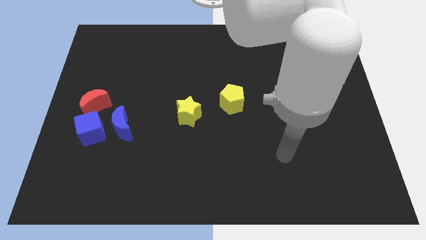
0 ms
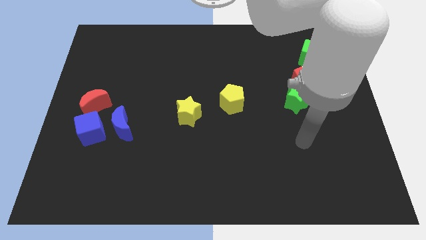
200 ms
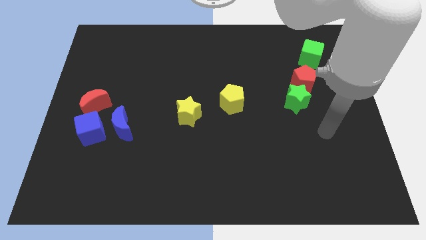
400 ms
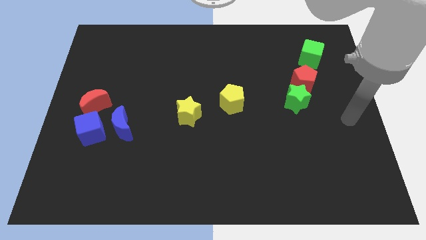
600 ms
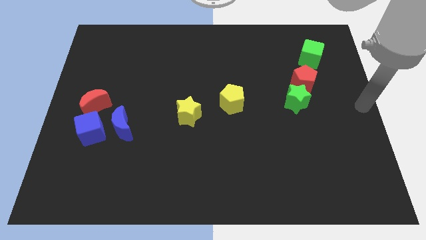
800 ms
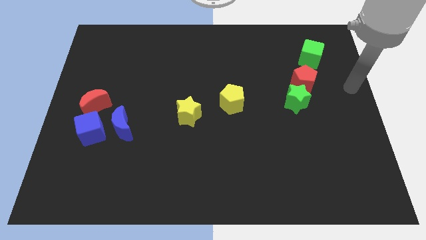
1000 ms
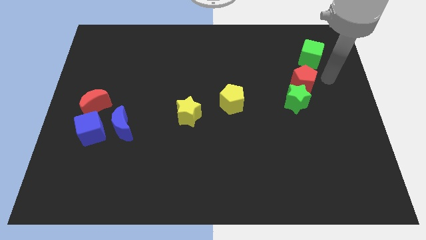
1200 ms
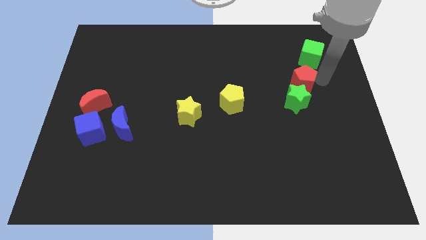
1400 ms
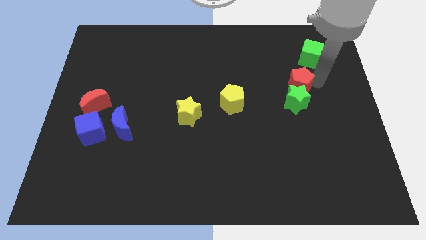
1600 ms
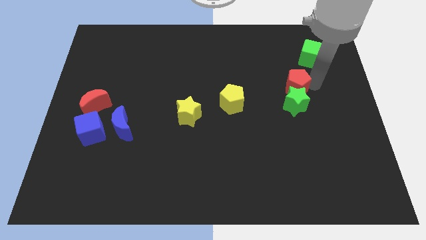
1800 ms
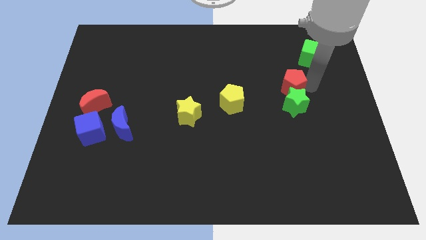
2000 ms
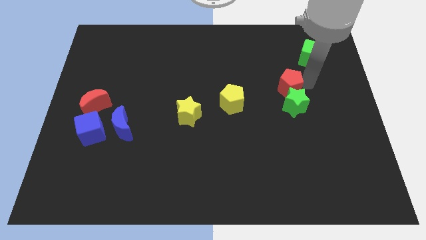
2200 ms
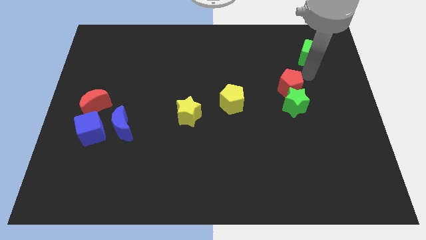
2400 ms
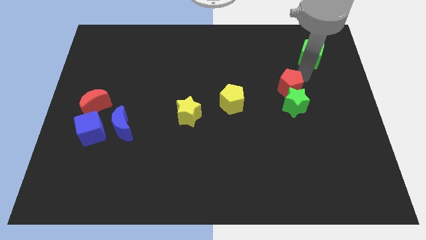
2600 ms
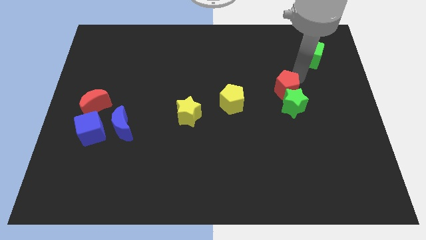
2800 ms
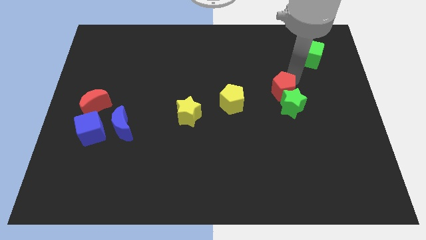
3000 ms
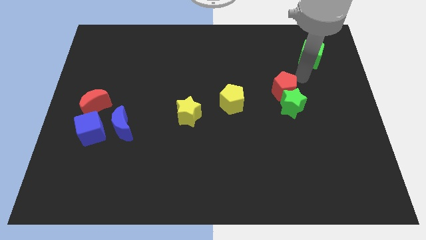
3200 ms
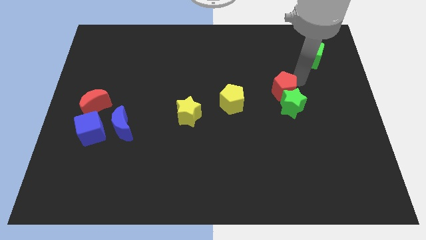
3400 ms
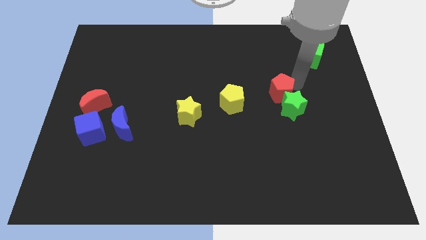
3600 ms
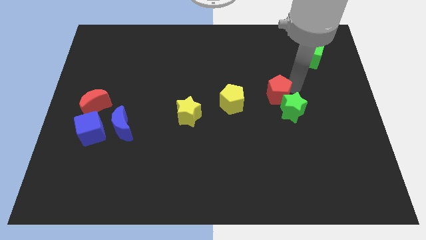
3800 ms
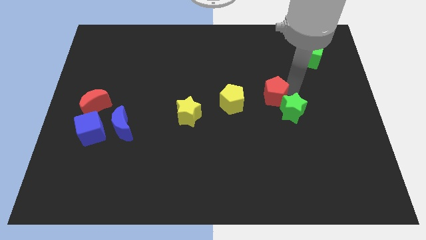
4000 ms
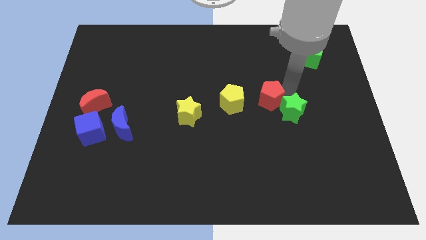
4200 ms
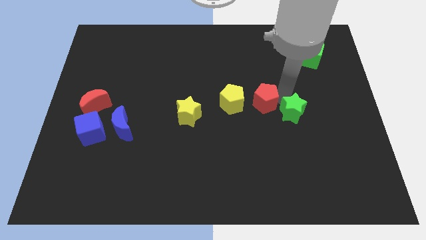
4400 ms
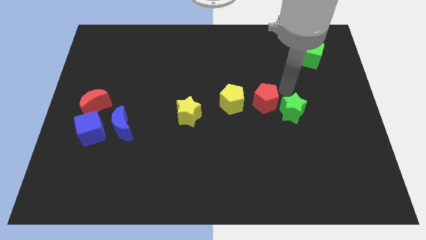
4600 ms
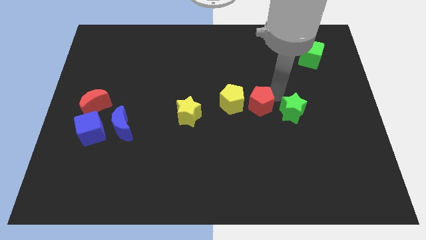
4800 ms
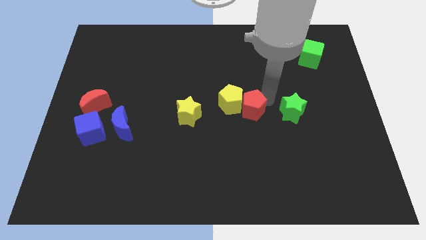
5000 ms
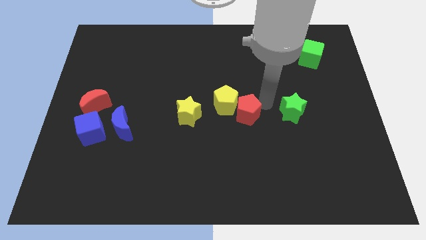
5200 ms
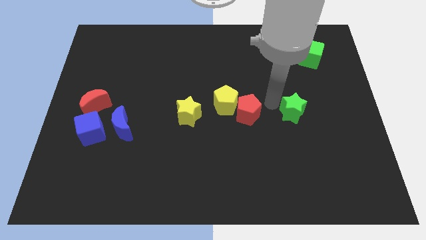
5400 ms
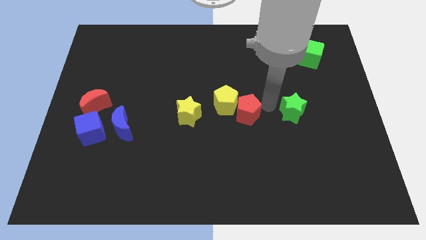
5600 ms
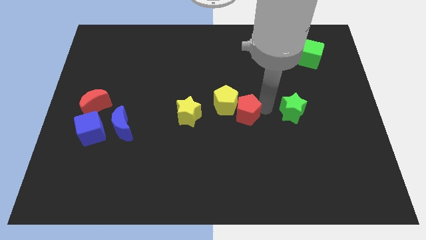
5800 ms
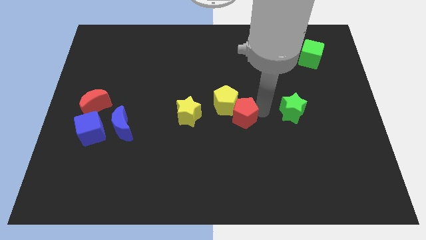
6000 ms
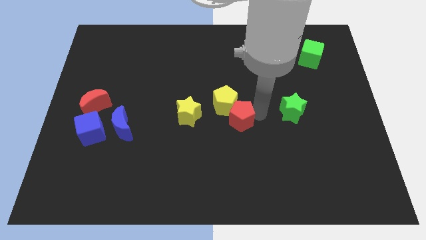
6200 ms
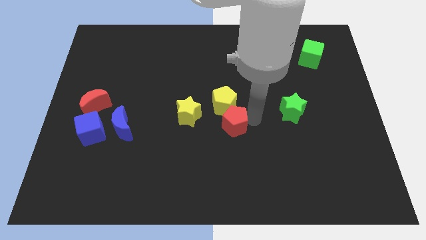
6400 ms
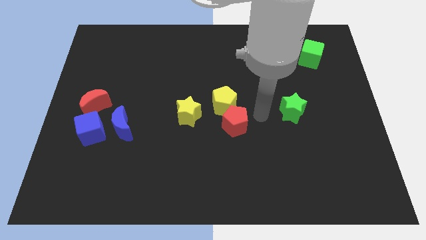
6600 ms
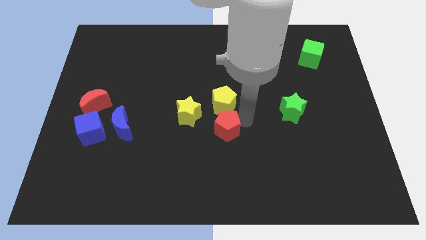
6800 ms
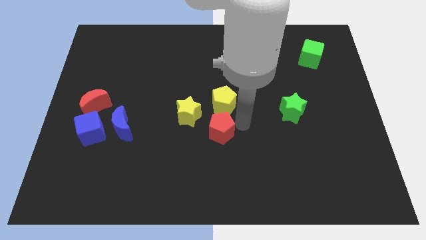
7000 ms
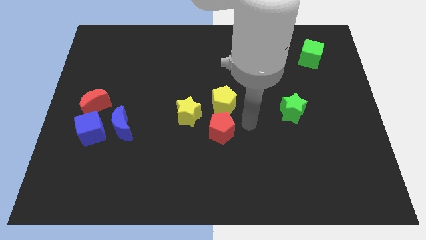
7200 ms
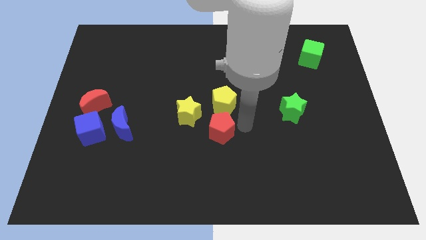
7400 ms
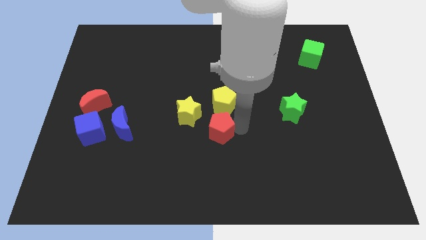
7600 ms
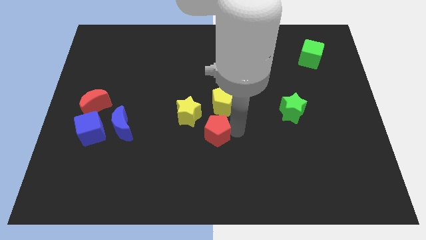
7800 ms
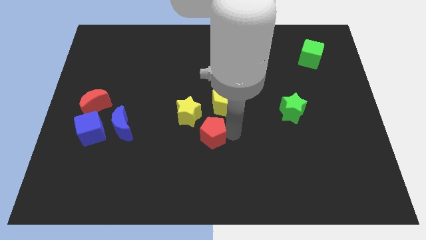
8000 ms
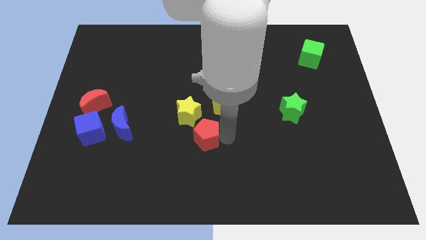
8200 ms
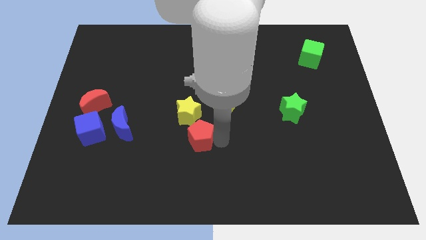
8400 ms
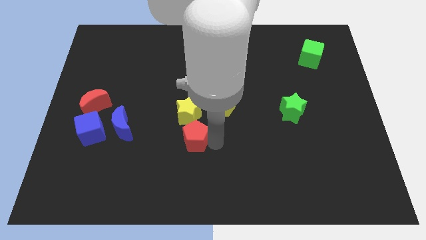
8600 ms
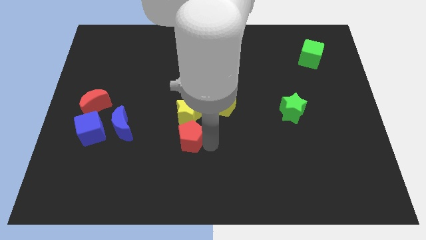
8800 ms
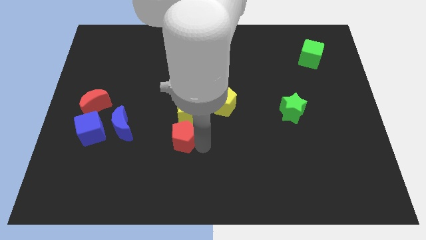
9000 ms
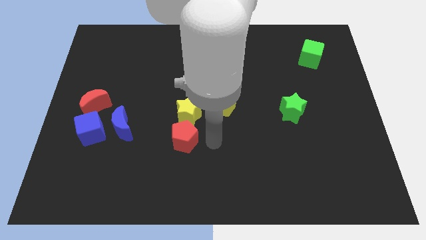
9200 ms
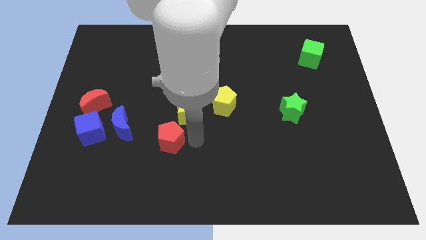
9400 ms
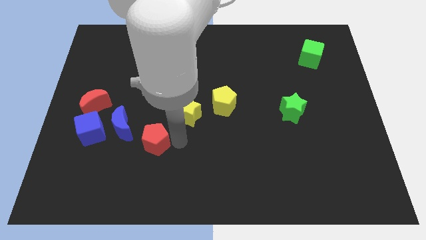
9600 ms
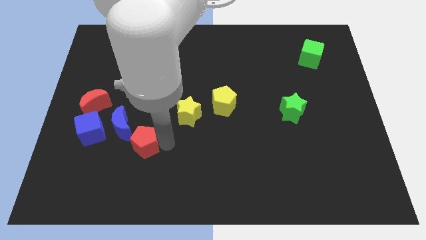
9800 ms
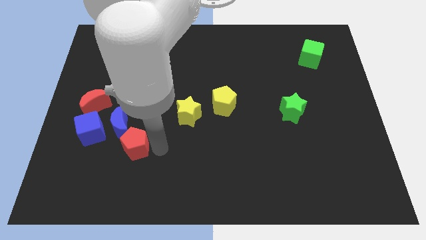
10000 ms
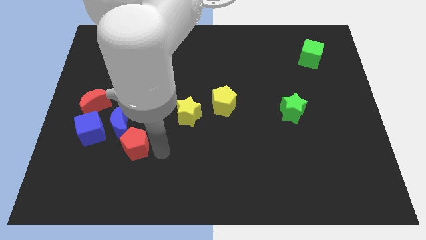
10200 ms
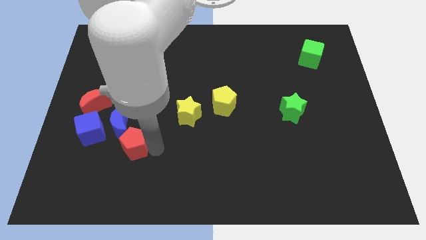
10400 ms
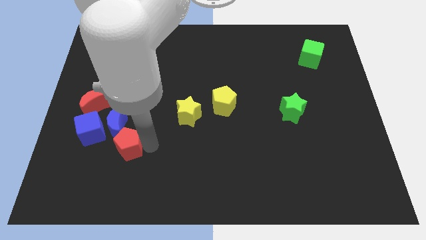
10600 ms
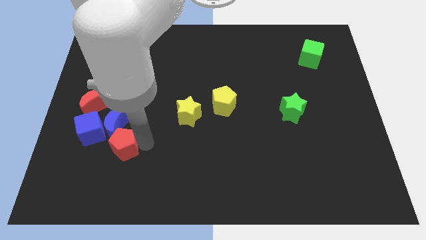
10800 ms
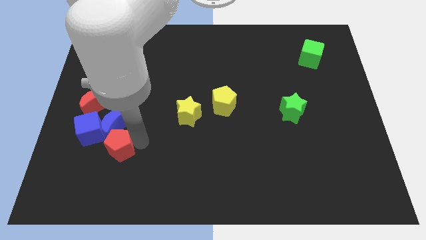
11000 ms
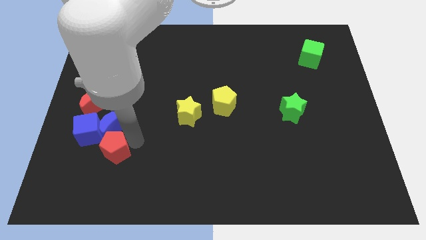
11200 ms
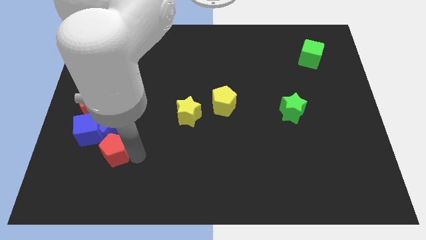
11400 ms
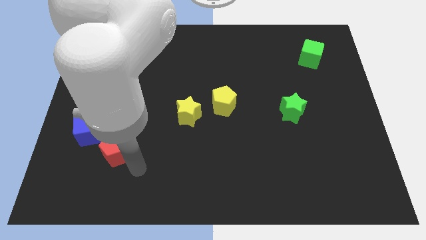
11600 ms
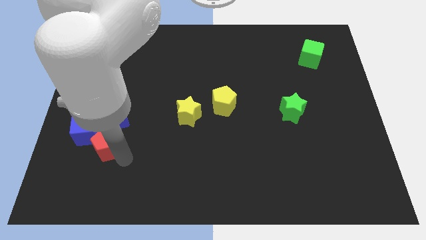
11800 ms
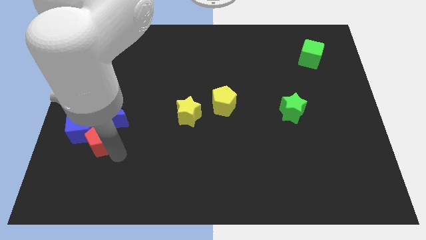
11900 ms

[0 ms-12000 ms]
slide the red pentagon next to the blue cube

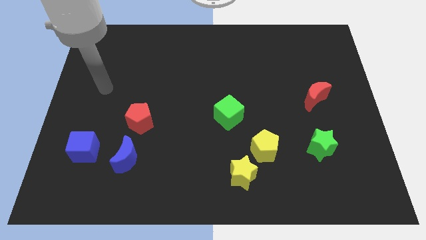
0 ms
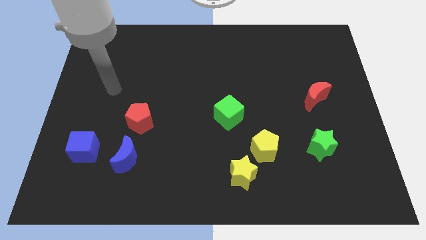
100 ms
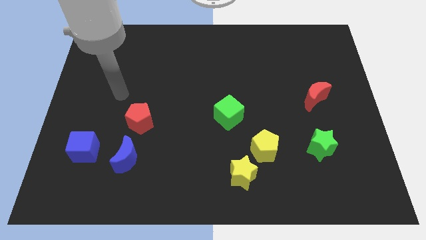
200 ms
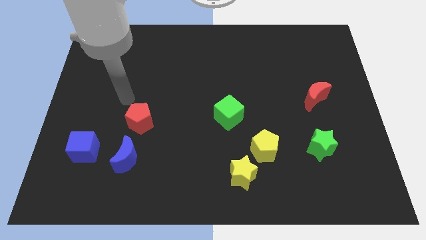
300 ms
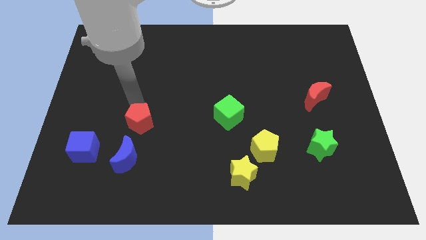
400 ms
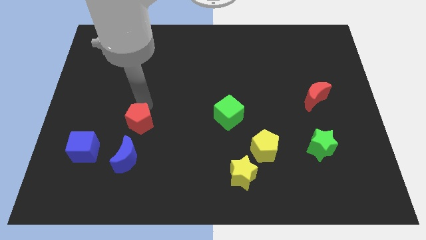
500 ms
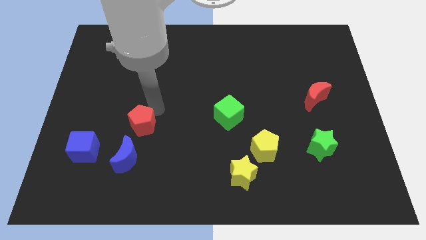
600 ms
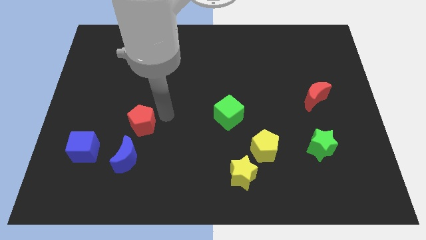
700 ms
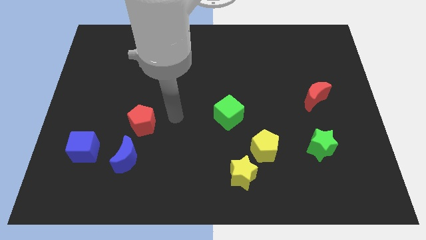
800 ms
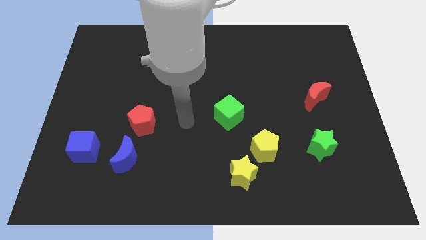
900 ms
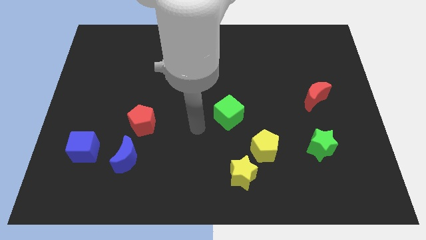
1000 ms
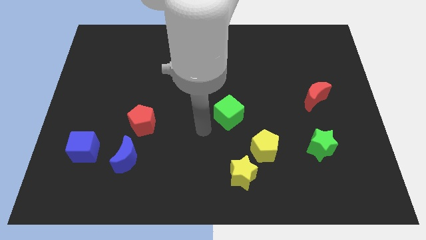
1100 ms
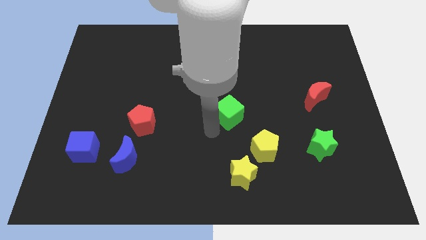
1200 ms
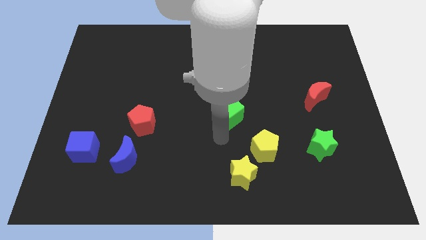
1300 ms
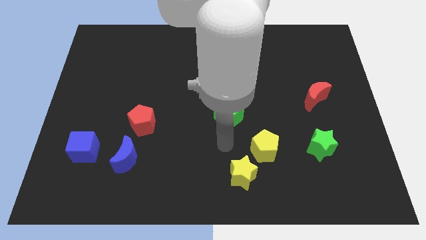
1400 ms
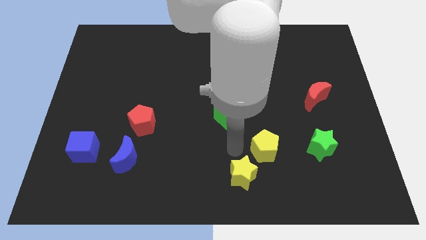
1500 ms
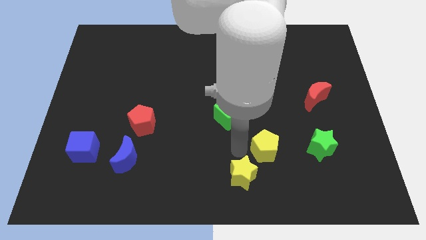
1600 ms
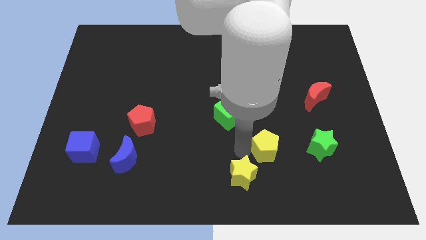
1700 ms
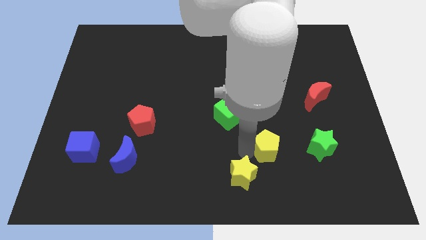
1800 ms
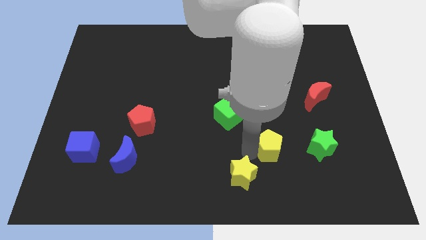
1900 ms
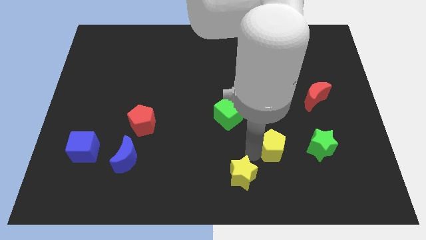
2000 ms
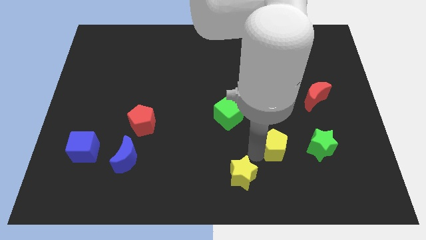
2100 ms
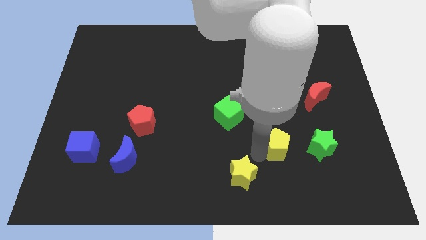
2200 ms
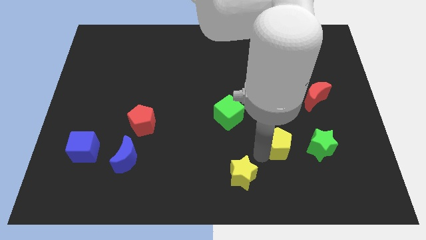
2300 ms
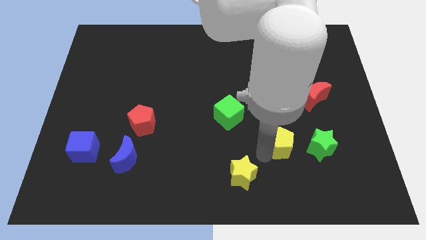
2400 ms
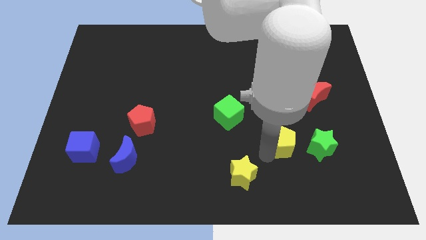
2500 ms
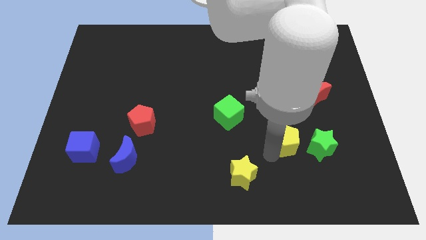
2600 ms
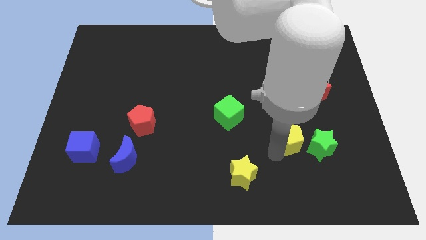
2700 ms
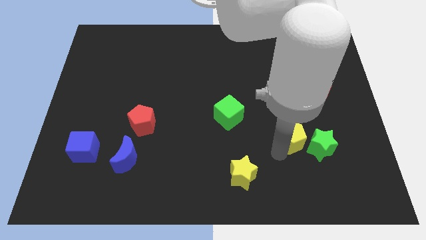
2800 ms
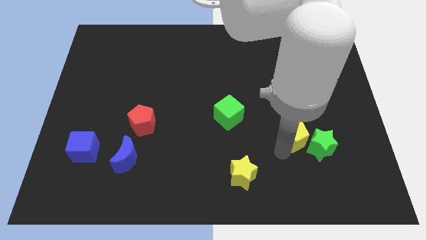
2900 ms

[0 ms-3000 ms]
move the yellow pentagon next to the green star
